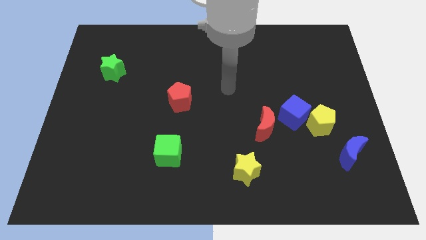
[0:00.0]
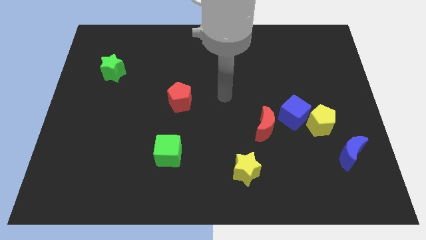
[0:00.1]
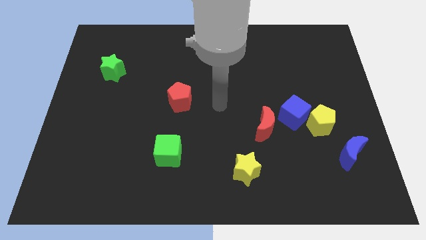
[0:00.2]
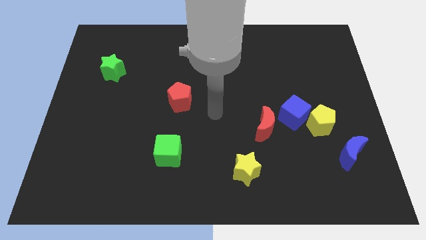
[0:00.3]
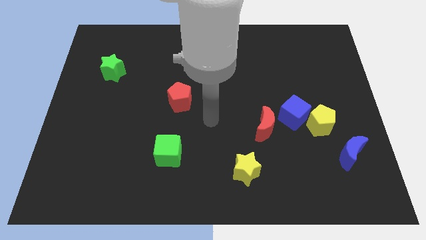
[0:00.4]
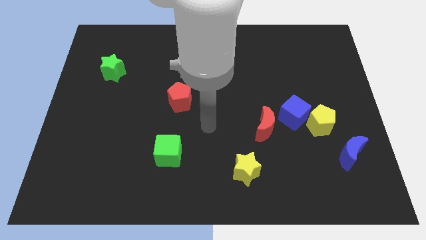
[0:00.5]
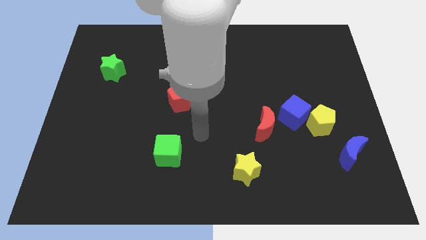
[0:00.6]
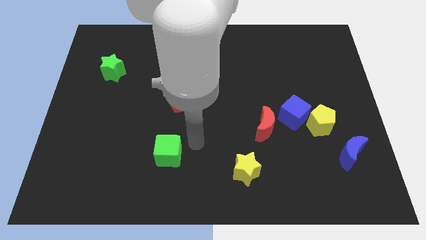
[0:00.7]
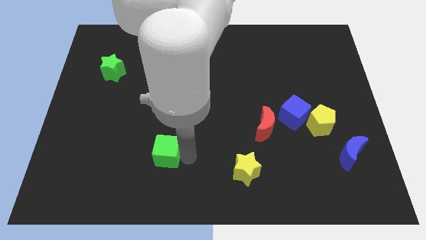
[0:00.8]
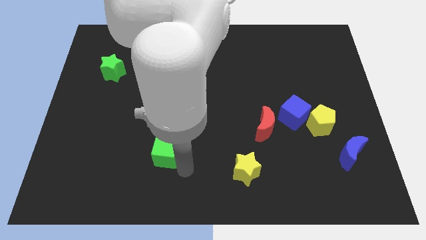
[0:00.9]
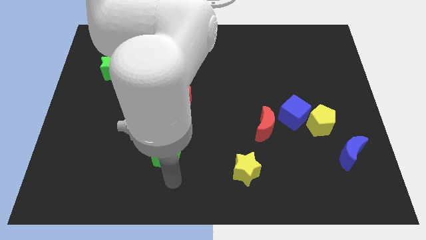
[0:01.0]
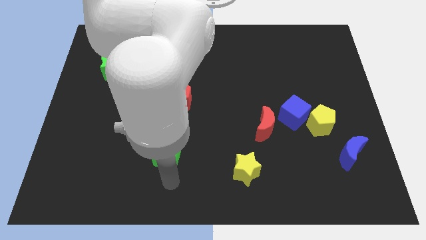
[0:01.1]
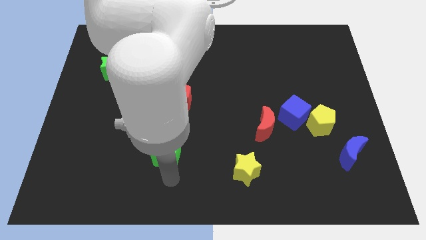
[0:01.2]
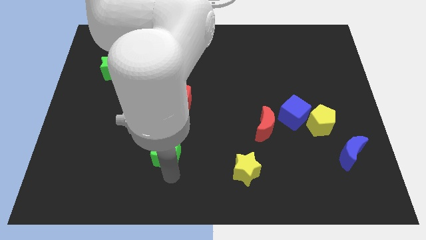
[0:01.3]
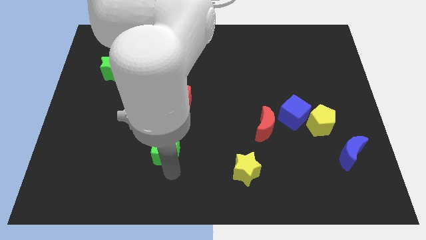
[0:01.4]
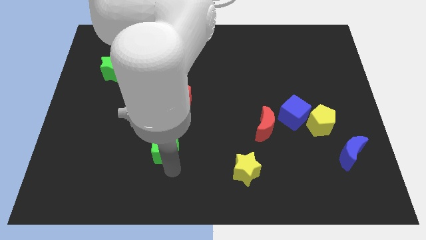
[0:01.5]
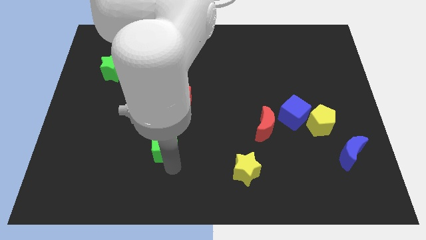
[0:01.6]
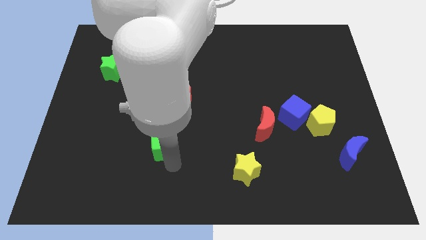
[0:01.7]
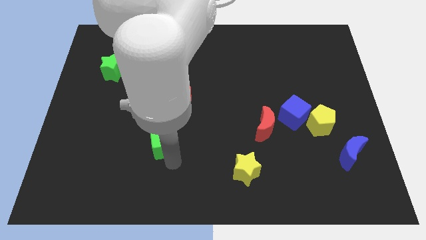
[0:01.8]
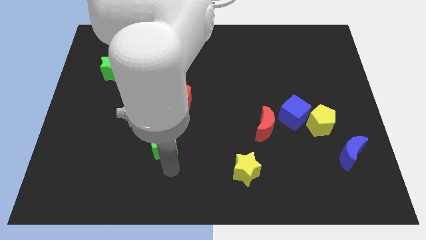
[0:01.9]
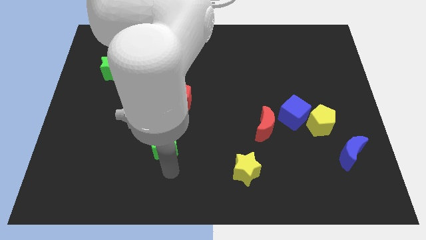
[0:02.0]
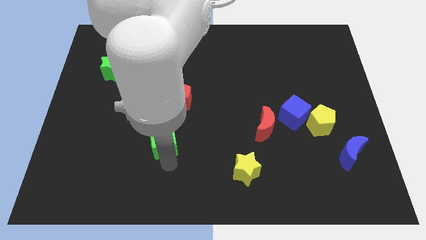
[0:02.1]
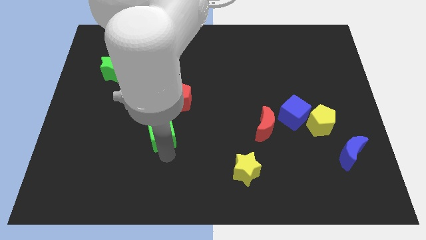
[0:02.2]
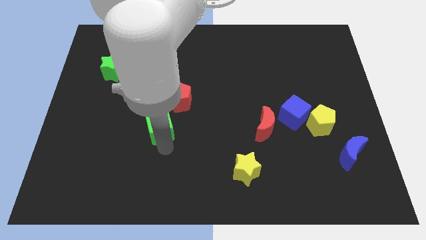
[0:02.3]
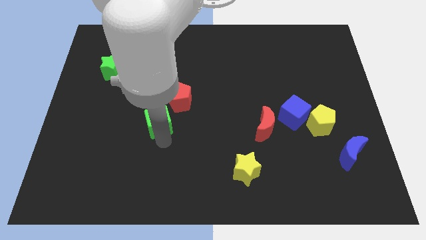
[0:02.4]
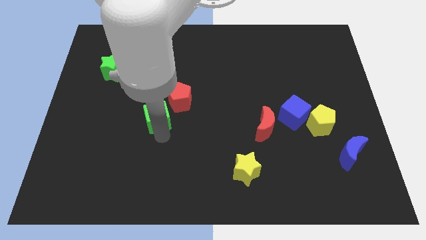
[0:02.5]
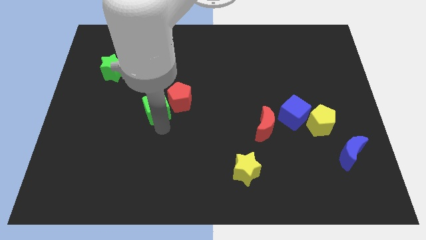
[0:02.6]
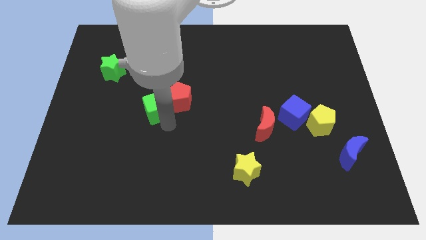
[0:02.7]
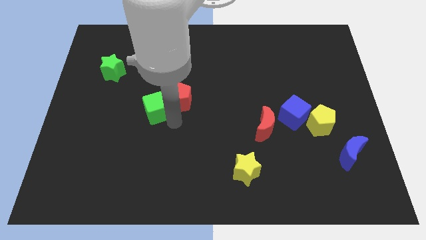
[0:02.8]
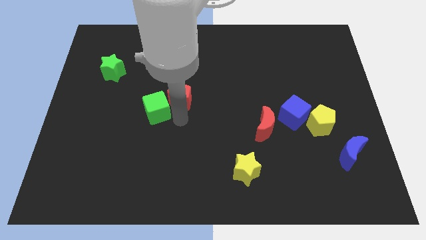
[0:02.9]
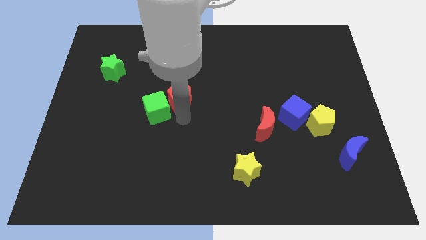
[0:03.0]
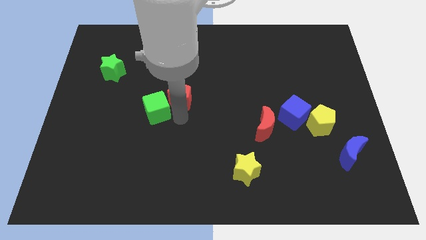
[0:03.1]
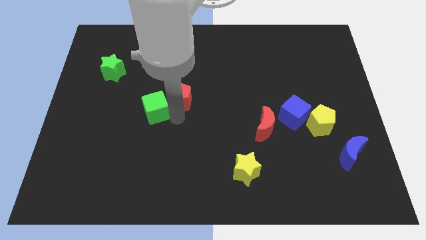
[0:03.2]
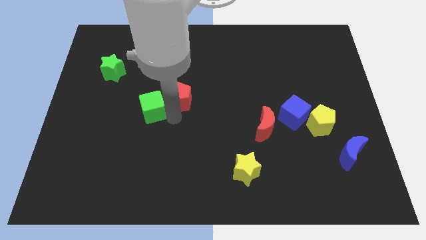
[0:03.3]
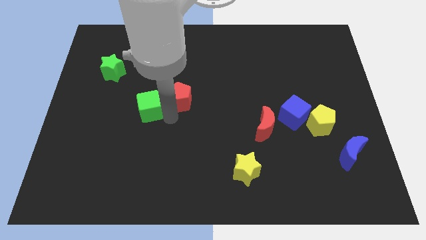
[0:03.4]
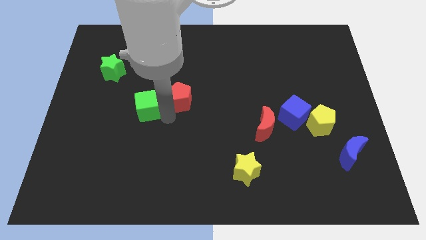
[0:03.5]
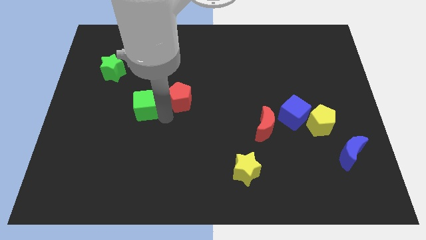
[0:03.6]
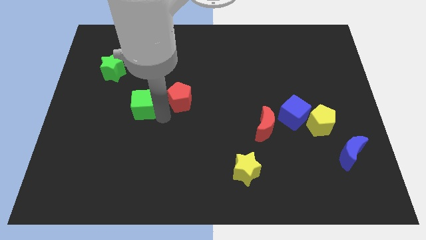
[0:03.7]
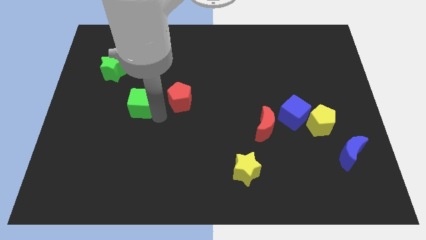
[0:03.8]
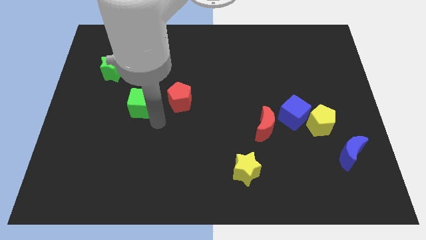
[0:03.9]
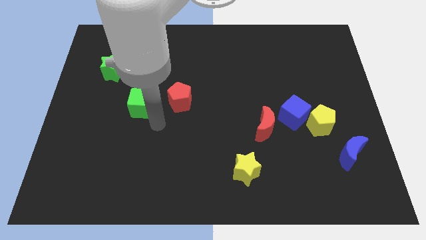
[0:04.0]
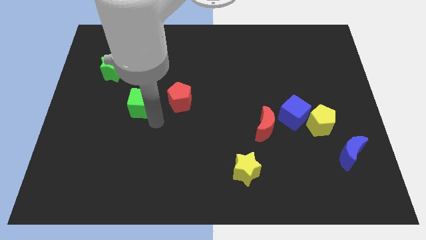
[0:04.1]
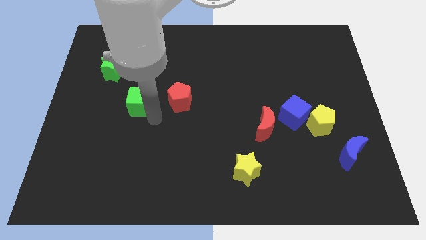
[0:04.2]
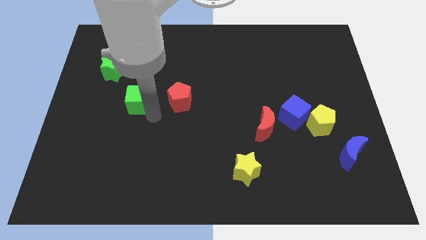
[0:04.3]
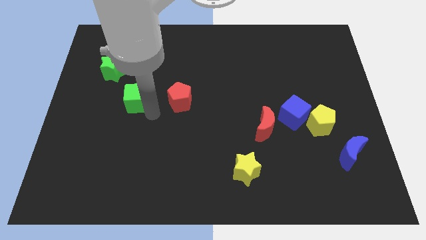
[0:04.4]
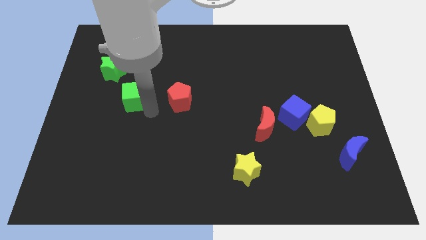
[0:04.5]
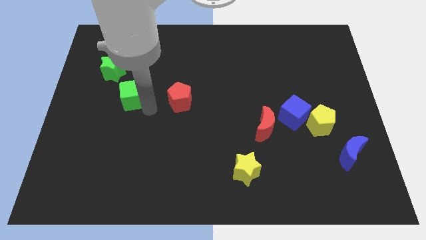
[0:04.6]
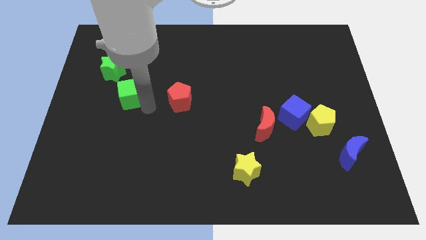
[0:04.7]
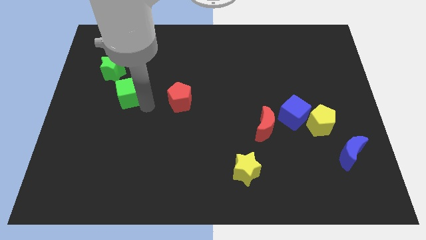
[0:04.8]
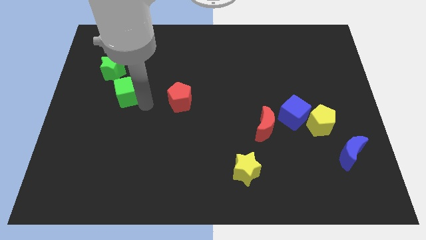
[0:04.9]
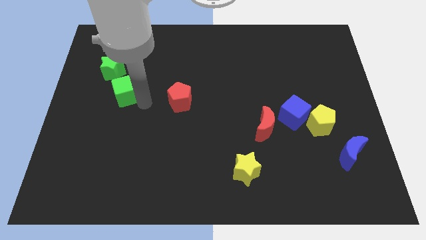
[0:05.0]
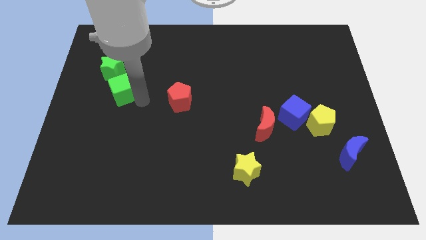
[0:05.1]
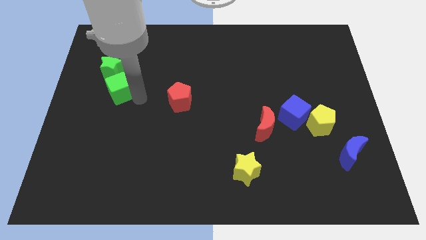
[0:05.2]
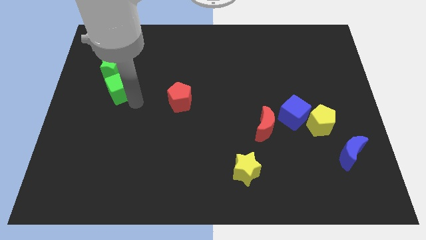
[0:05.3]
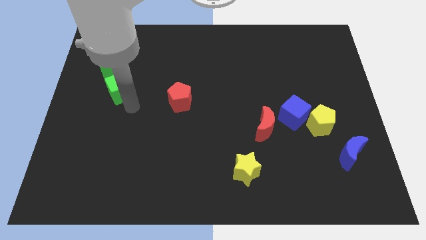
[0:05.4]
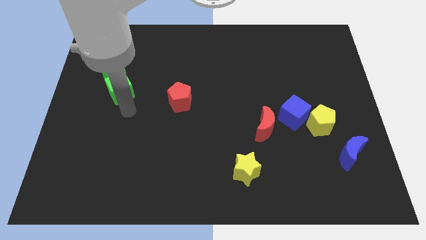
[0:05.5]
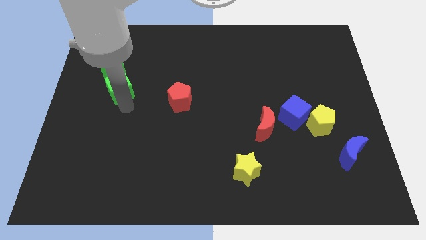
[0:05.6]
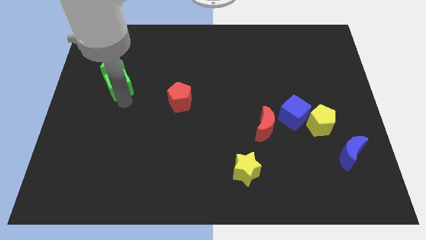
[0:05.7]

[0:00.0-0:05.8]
push the green cube to the green star

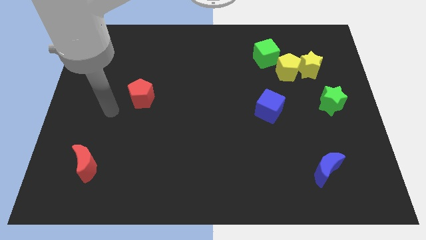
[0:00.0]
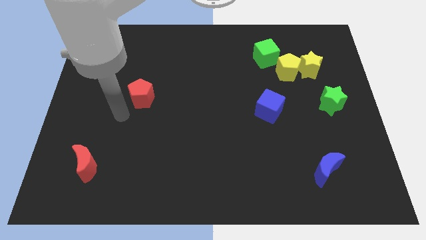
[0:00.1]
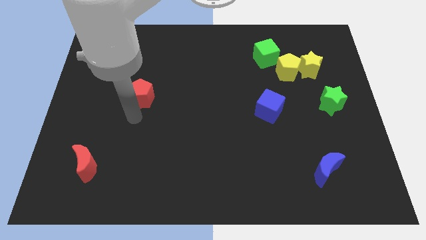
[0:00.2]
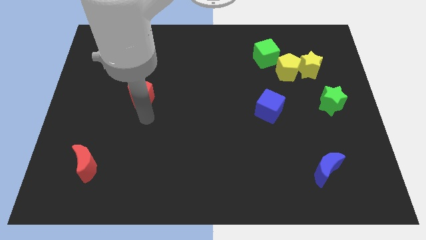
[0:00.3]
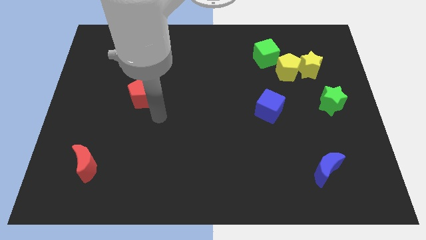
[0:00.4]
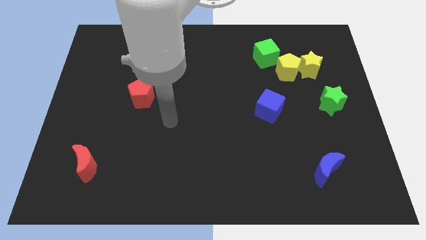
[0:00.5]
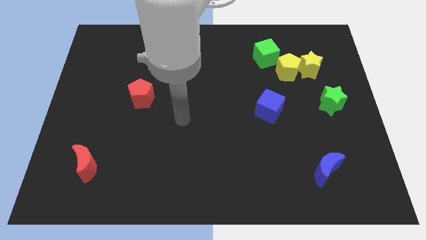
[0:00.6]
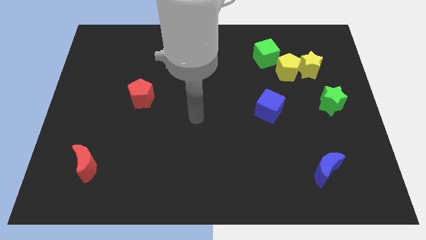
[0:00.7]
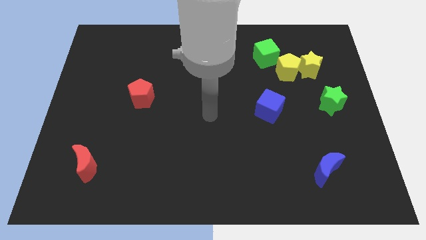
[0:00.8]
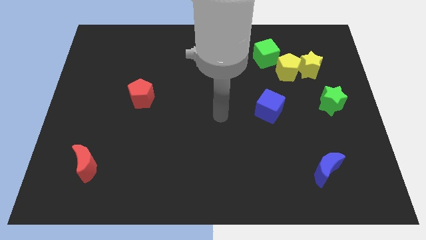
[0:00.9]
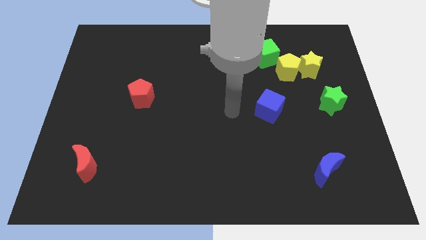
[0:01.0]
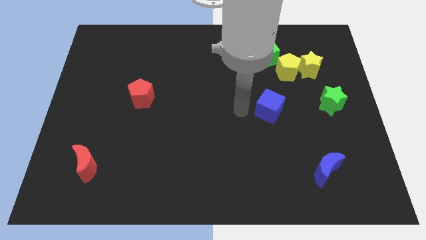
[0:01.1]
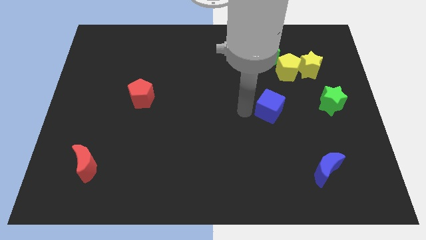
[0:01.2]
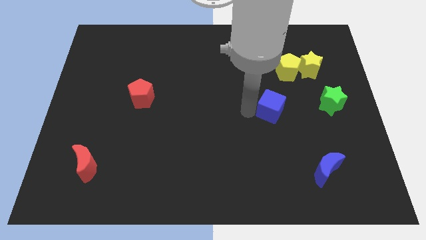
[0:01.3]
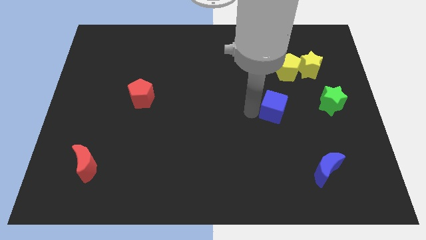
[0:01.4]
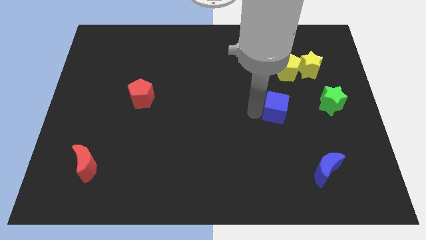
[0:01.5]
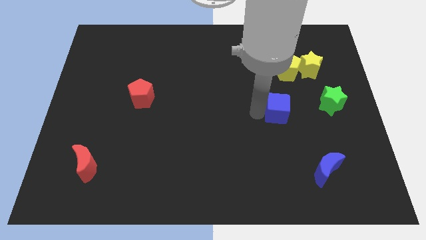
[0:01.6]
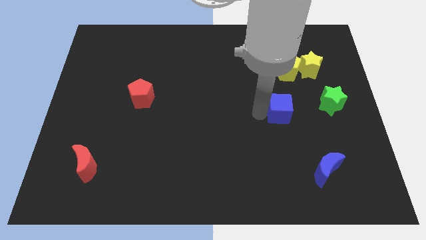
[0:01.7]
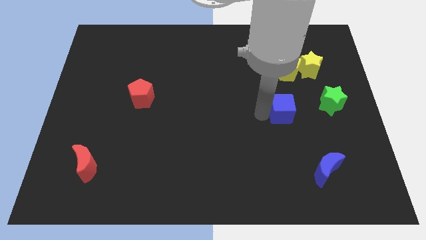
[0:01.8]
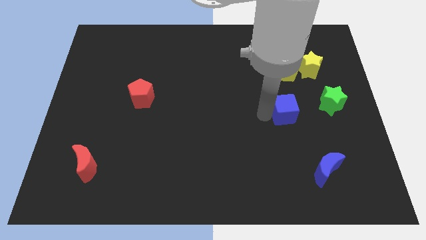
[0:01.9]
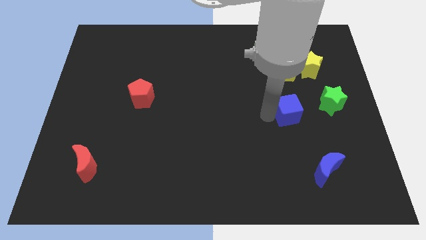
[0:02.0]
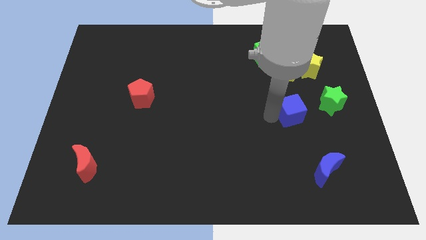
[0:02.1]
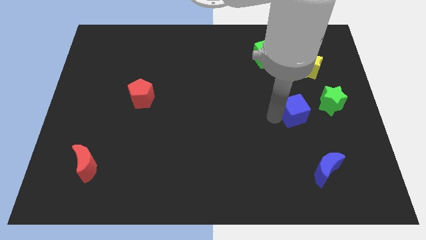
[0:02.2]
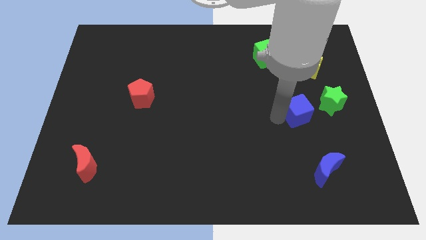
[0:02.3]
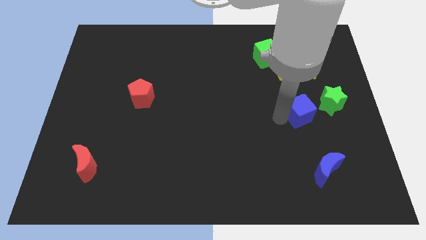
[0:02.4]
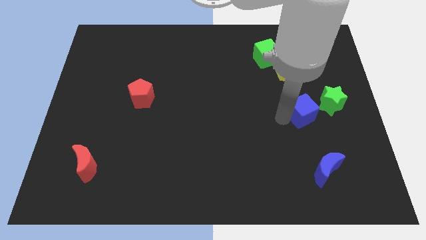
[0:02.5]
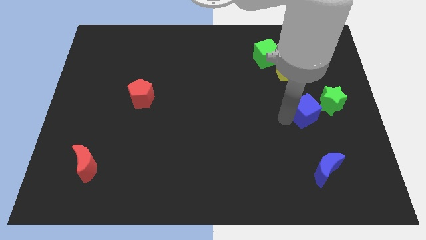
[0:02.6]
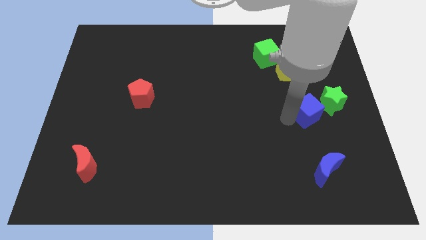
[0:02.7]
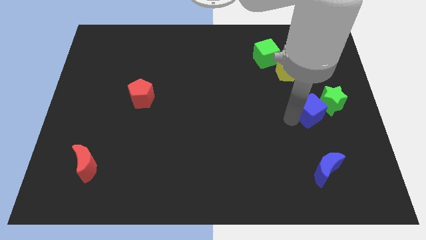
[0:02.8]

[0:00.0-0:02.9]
put the blue cube close to the green star
